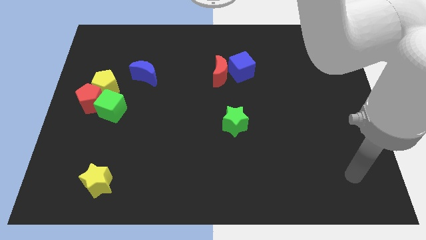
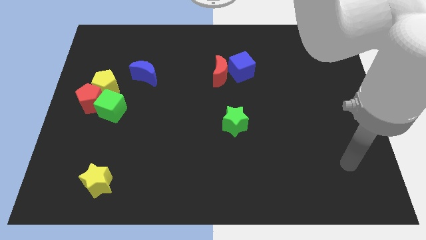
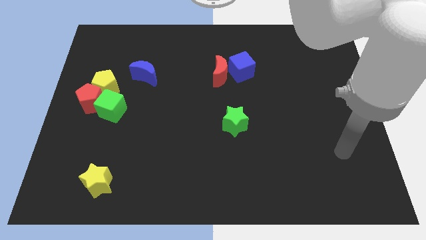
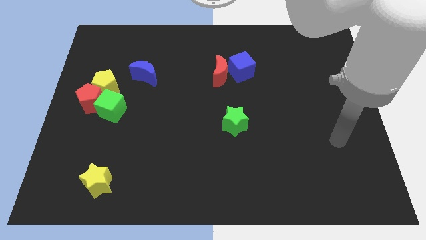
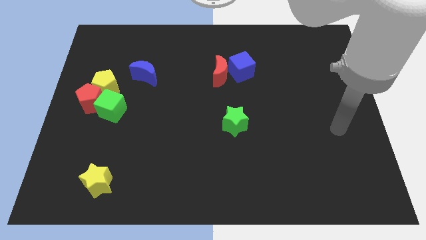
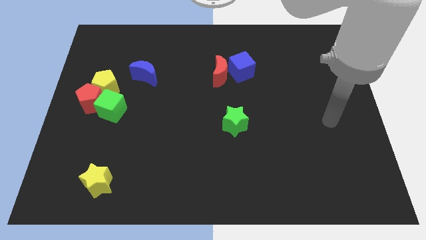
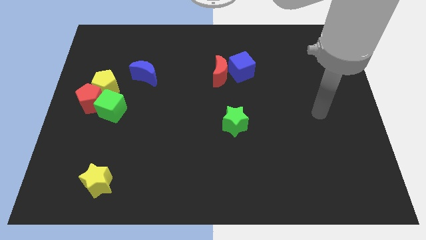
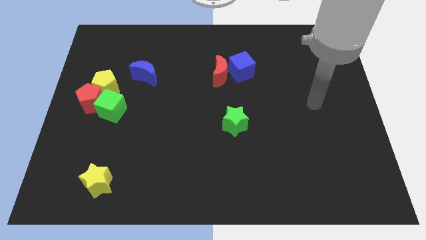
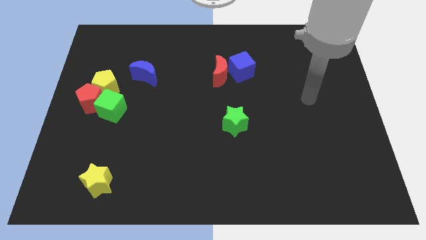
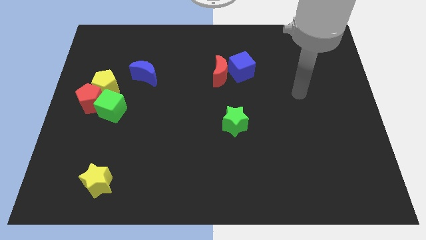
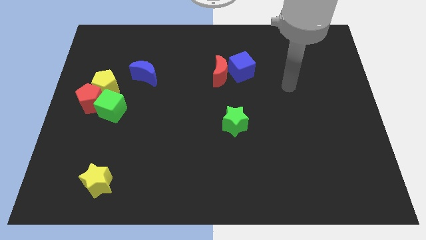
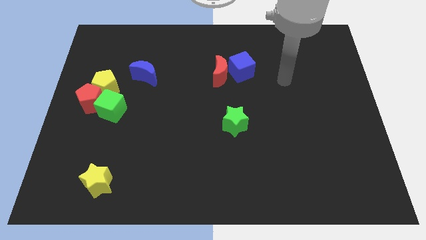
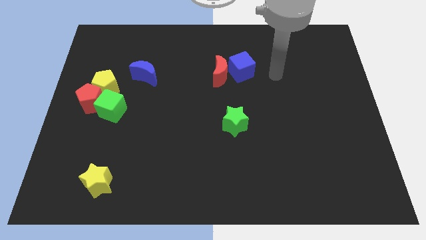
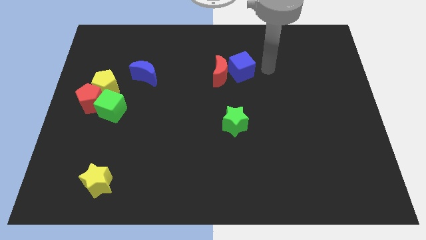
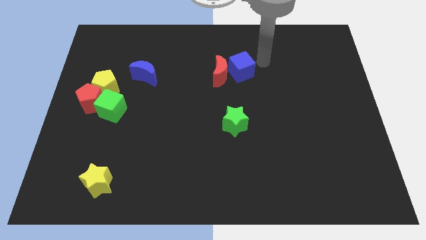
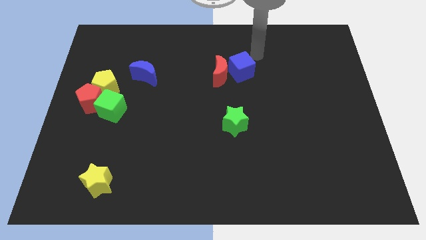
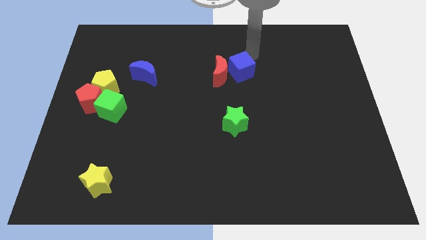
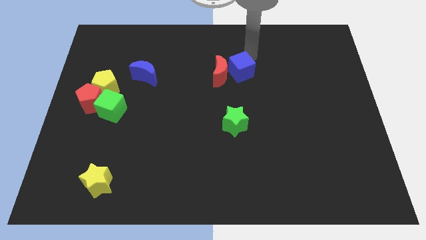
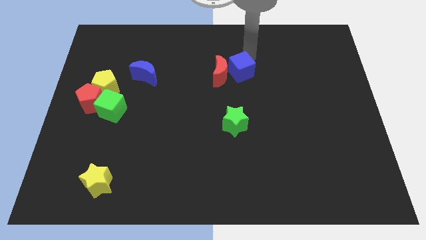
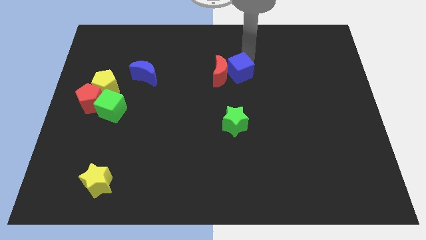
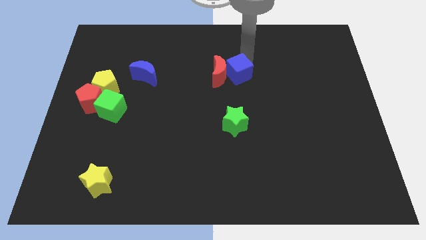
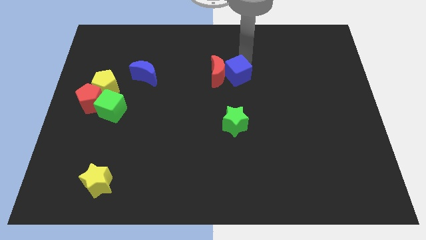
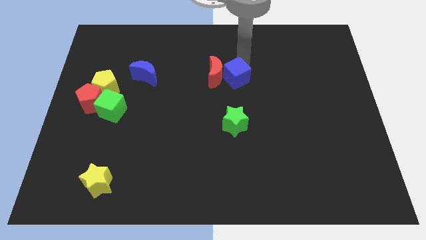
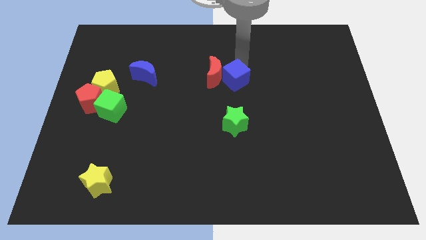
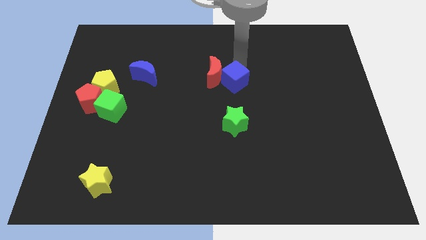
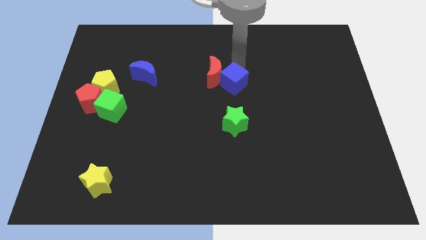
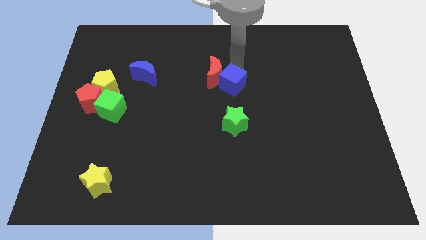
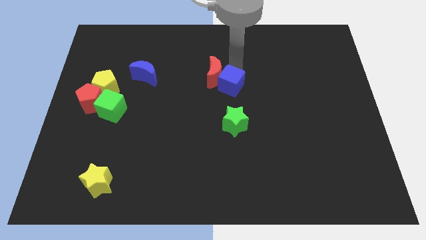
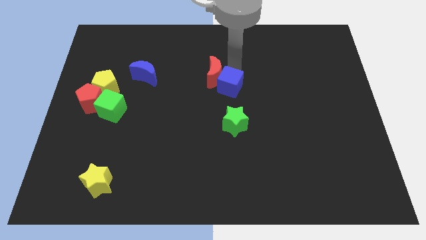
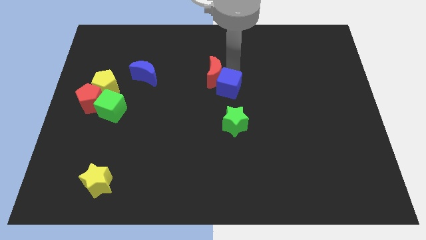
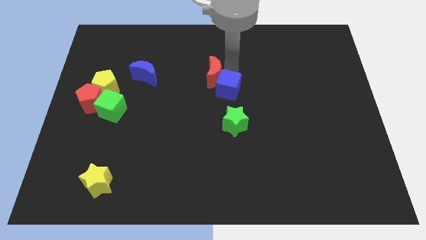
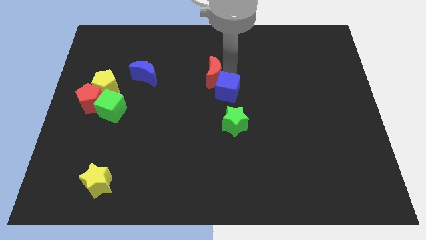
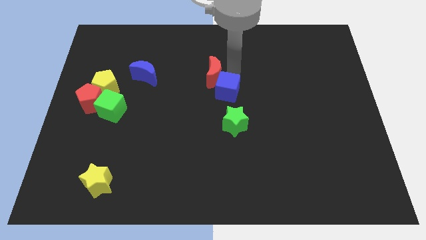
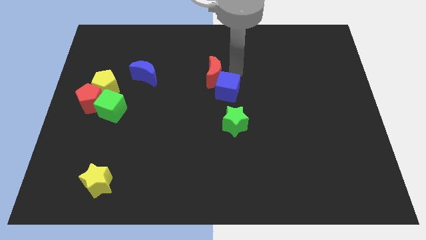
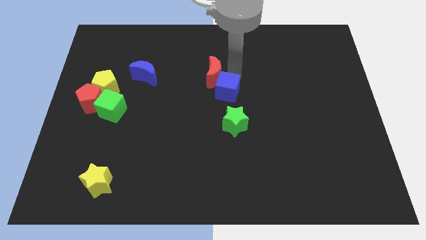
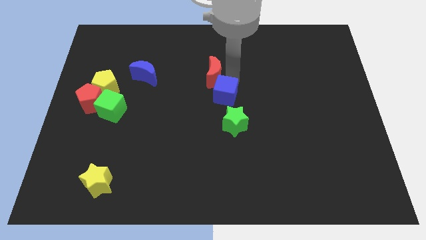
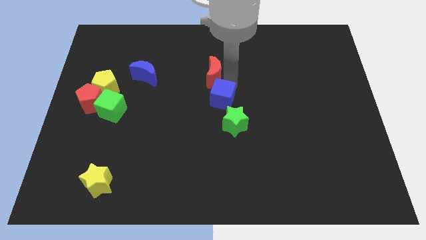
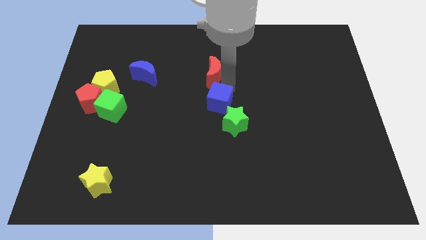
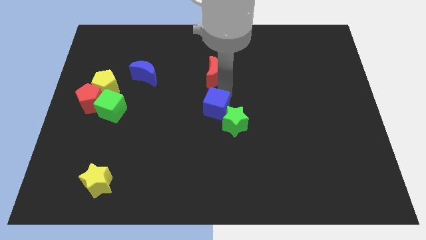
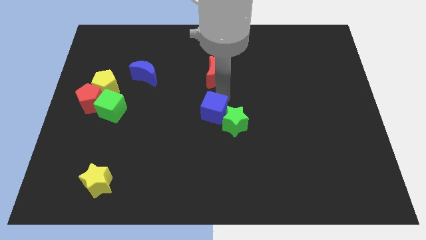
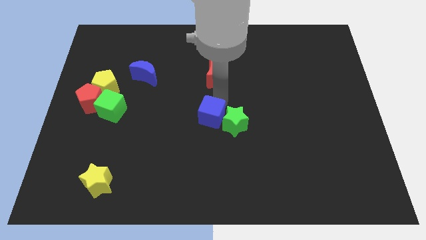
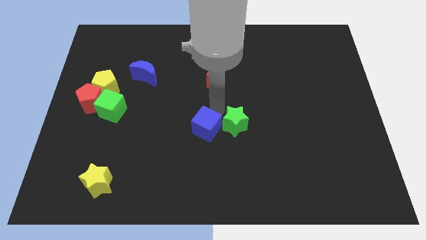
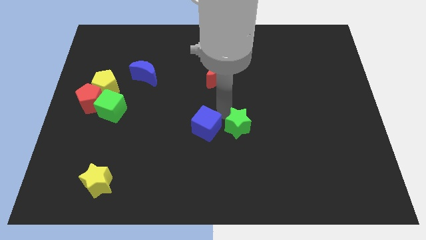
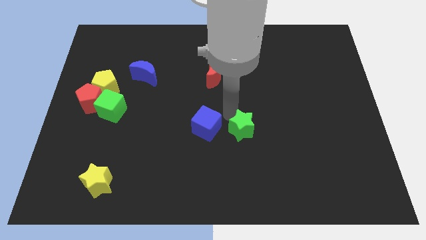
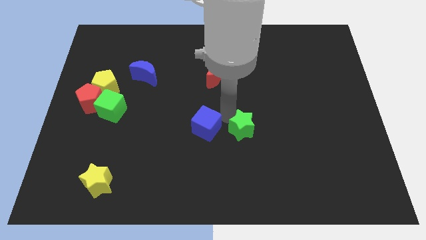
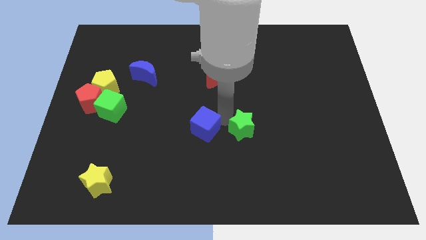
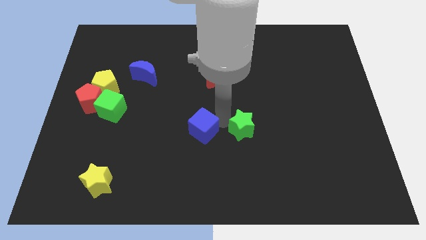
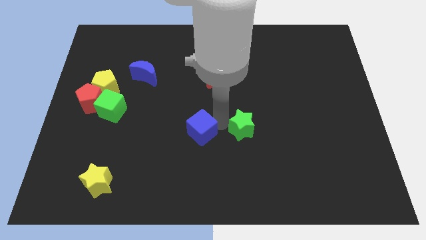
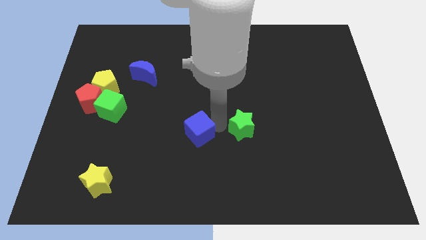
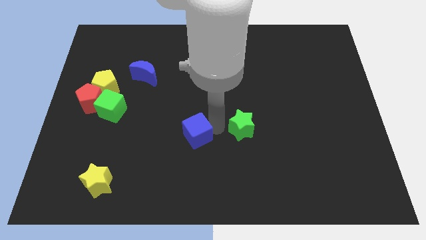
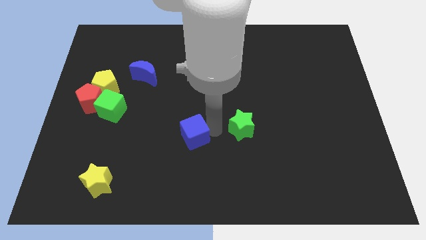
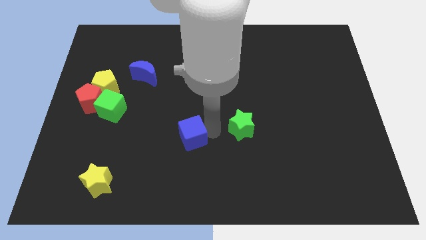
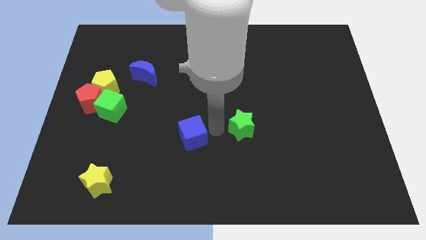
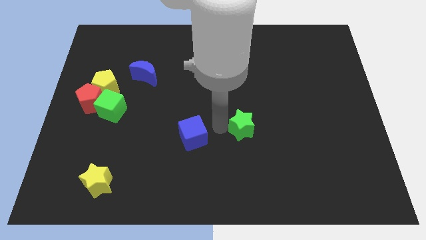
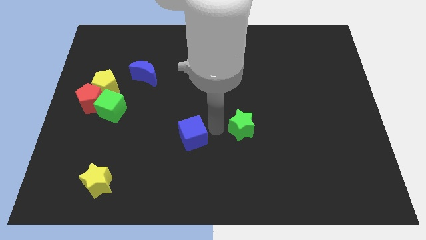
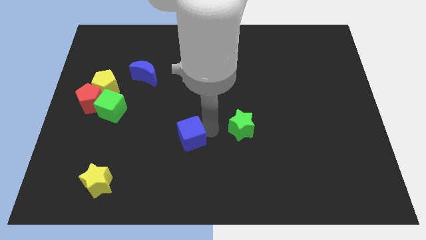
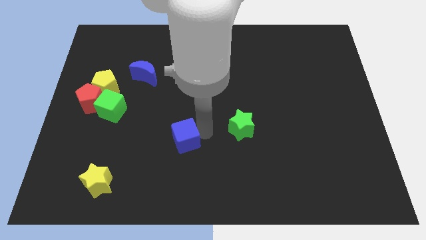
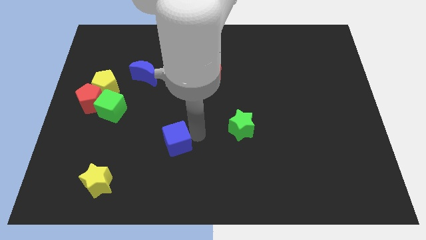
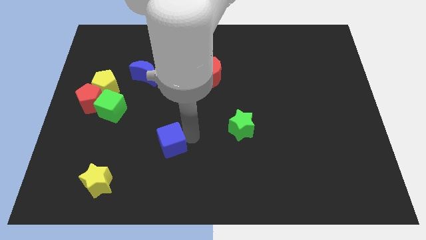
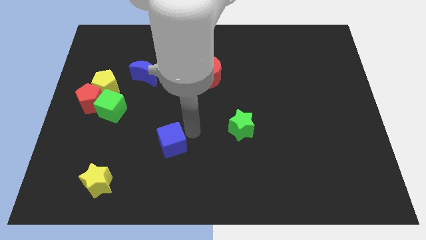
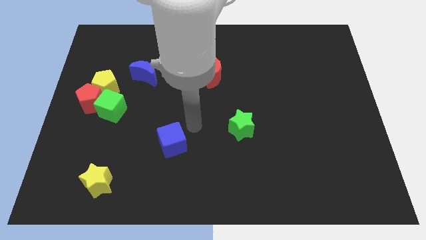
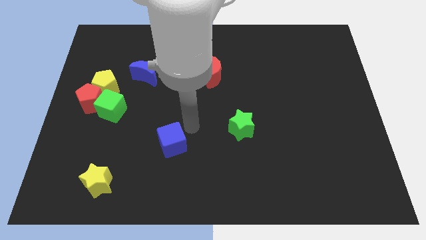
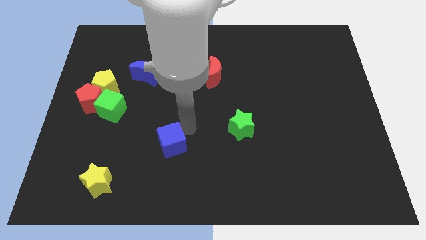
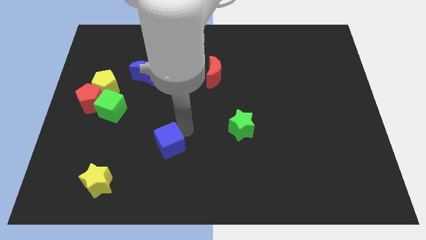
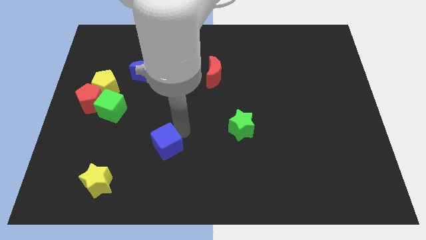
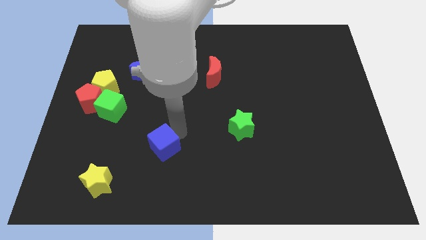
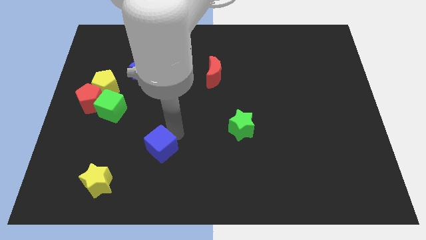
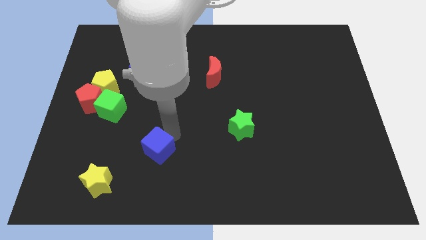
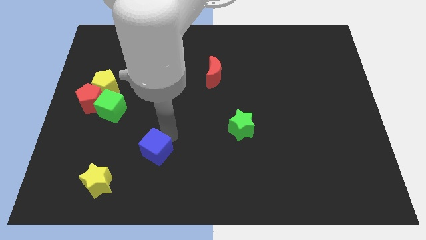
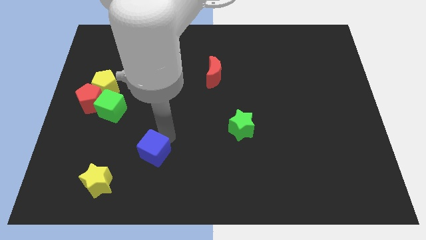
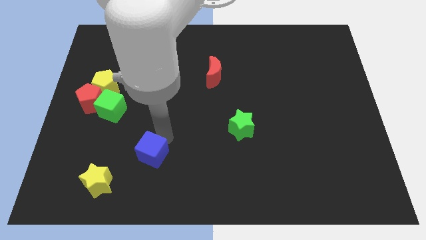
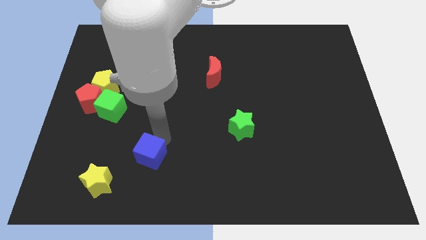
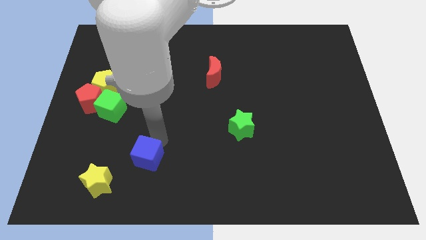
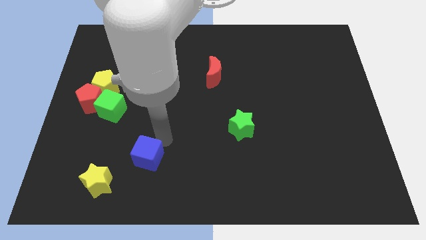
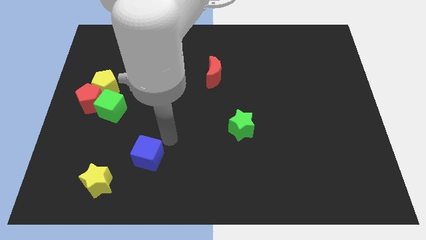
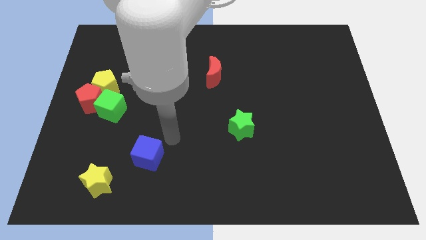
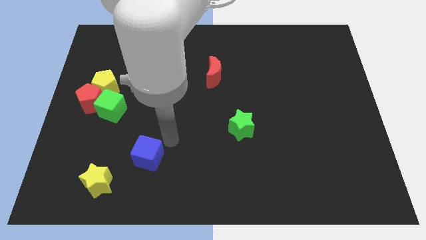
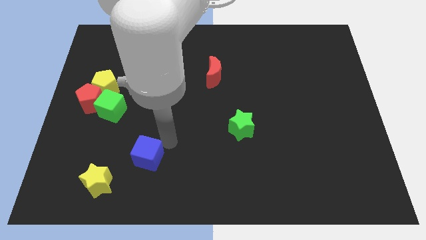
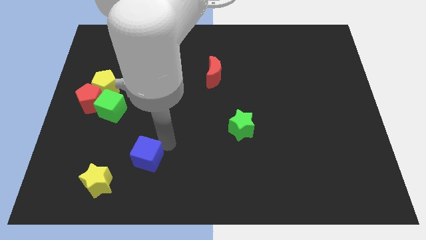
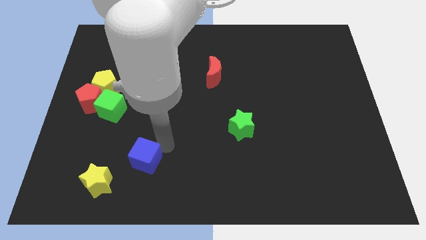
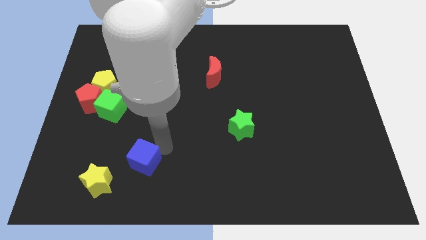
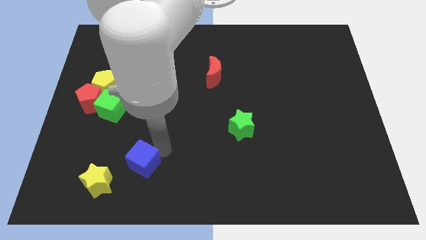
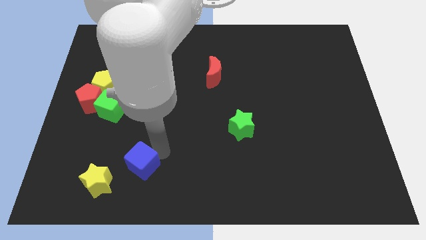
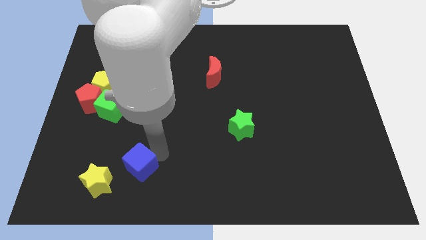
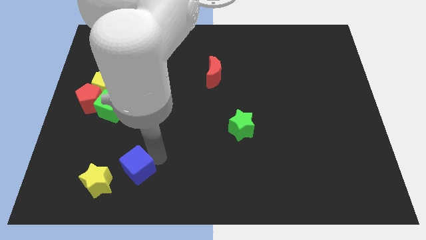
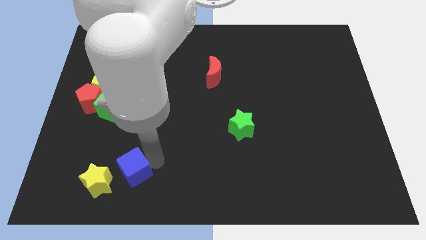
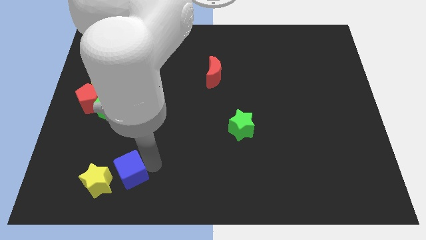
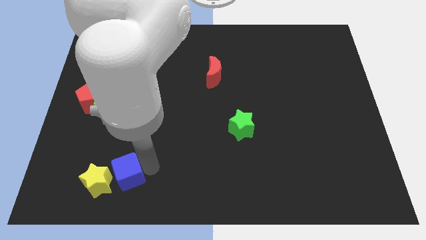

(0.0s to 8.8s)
slide the blue cube towards the yellow star
